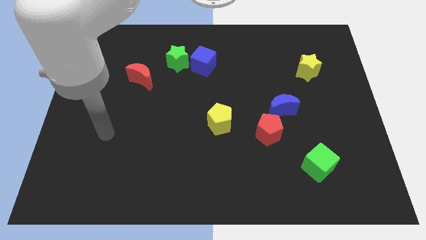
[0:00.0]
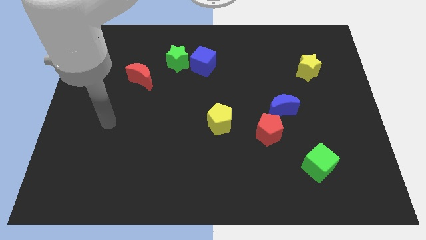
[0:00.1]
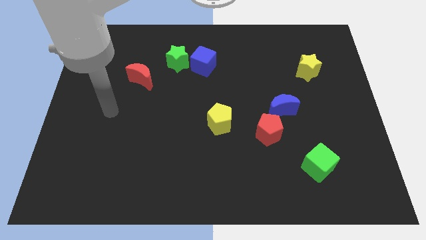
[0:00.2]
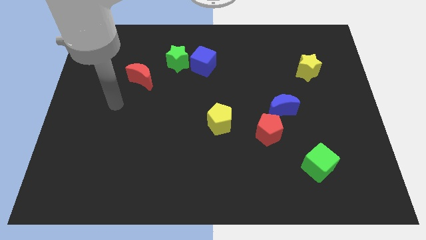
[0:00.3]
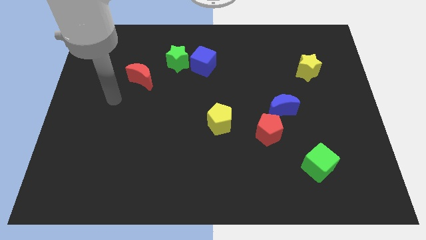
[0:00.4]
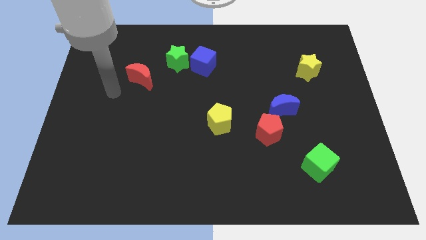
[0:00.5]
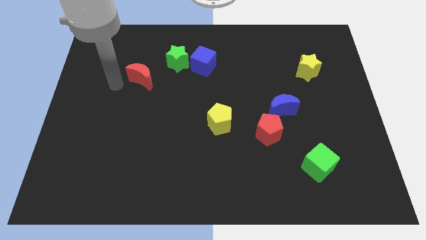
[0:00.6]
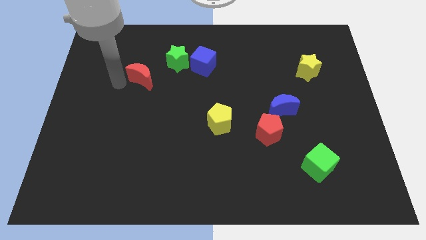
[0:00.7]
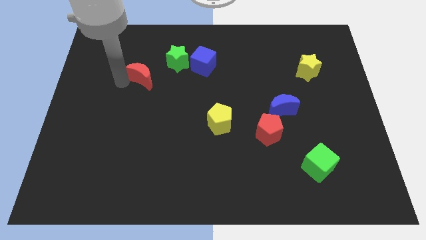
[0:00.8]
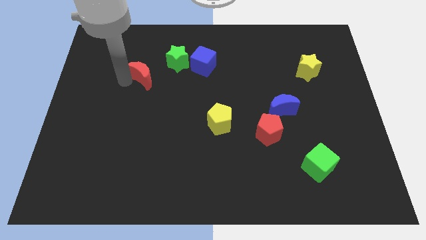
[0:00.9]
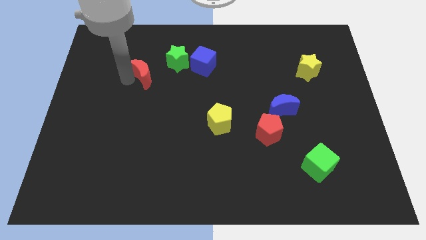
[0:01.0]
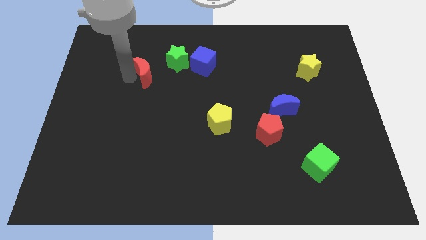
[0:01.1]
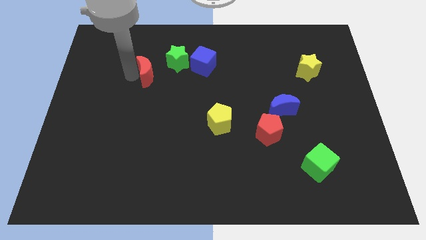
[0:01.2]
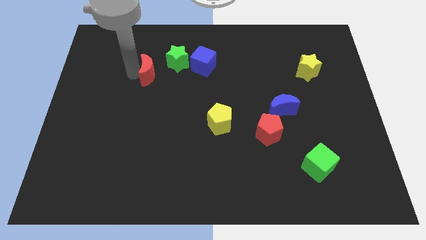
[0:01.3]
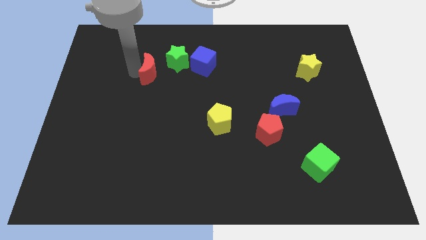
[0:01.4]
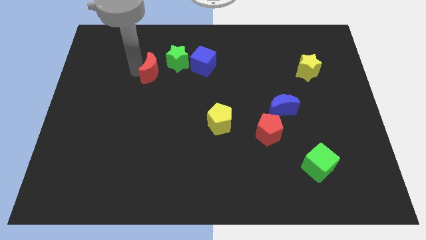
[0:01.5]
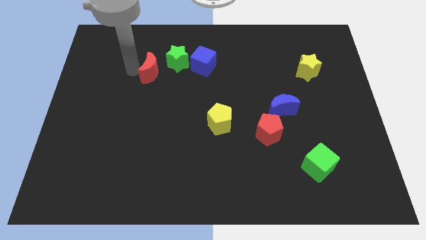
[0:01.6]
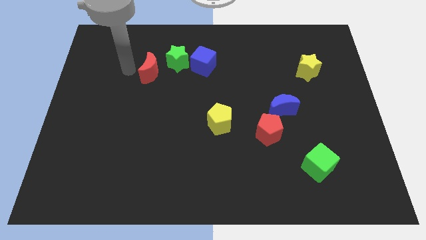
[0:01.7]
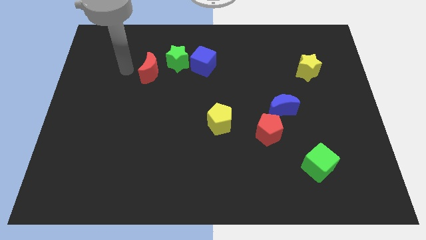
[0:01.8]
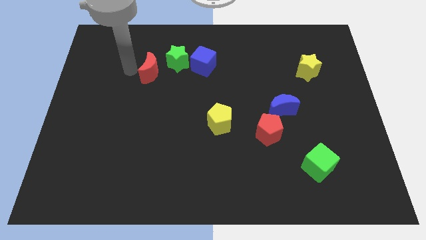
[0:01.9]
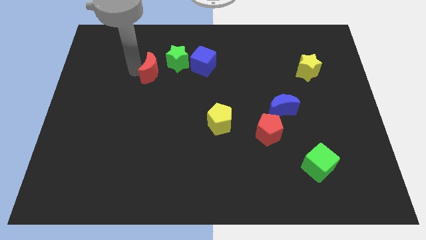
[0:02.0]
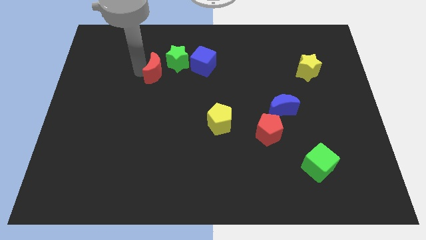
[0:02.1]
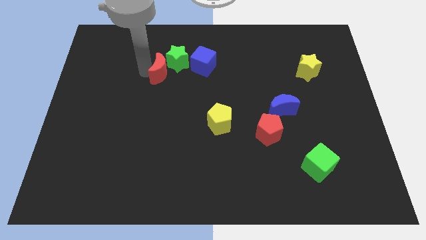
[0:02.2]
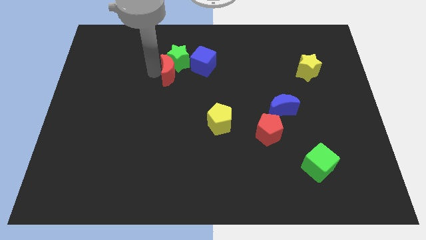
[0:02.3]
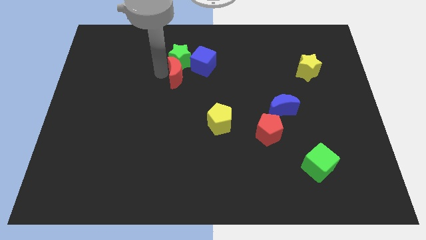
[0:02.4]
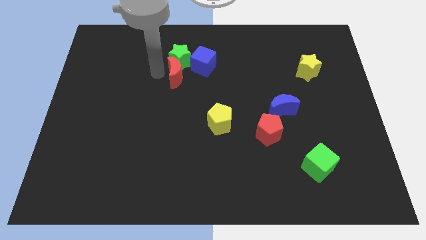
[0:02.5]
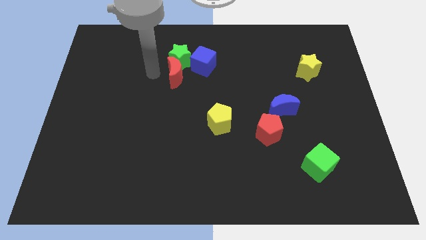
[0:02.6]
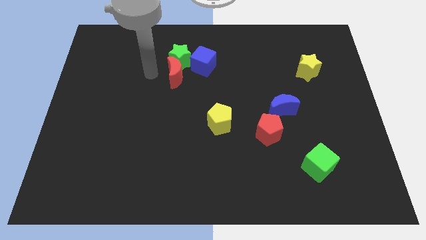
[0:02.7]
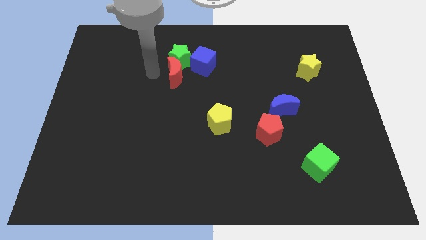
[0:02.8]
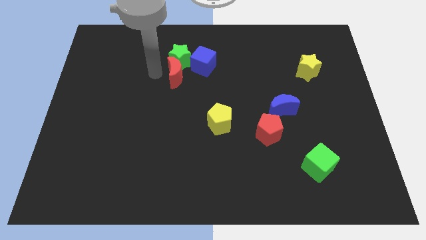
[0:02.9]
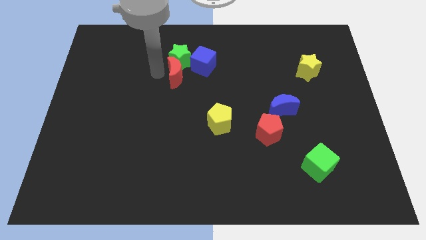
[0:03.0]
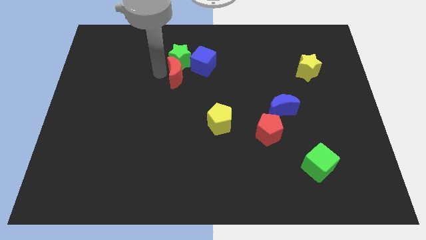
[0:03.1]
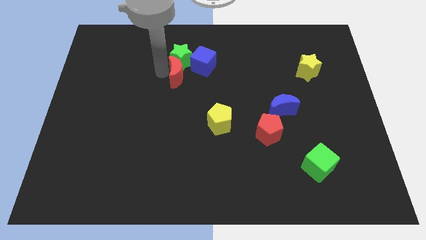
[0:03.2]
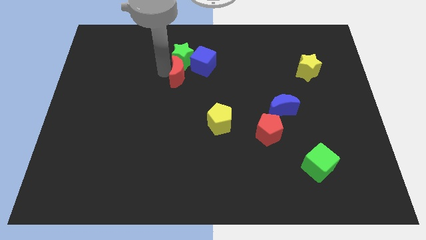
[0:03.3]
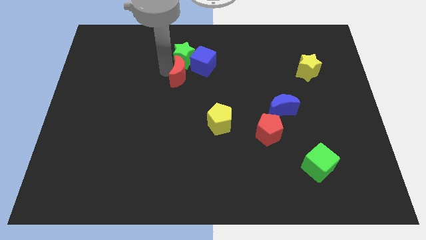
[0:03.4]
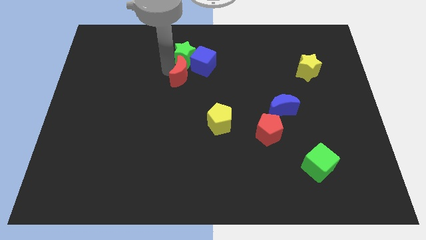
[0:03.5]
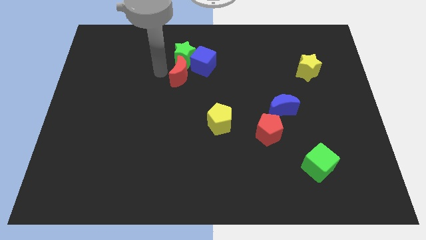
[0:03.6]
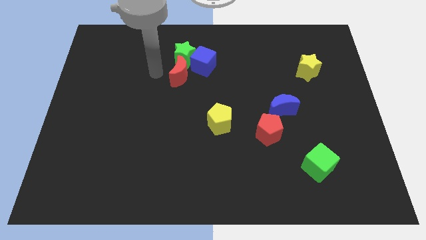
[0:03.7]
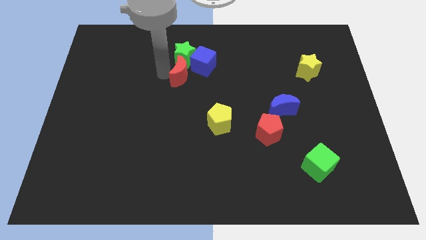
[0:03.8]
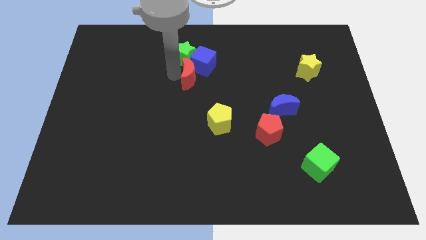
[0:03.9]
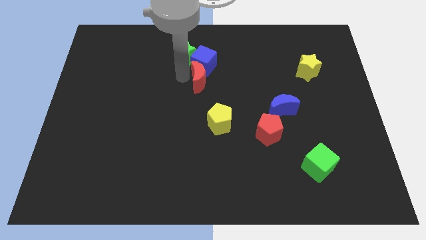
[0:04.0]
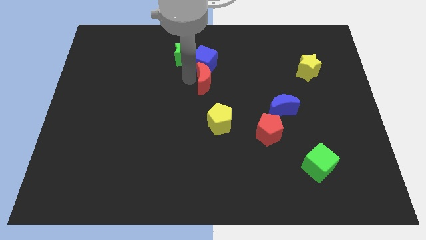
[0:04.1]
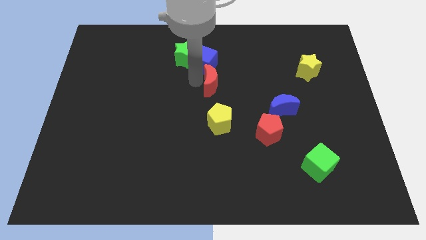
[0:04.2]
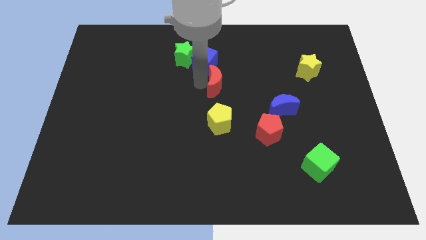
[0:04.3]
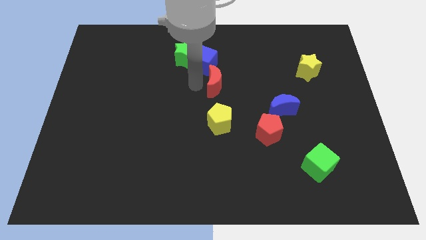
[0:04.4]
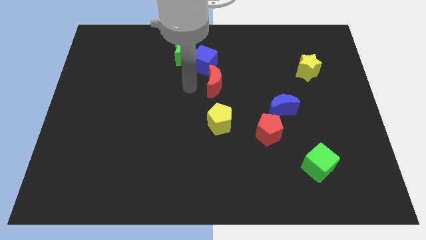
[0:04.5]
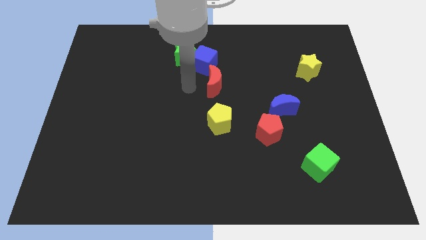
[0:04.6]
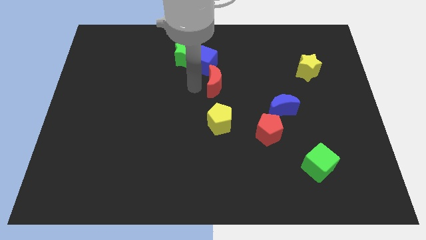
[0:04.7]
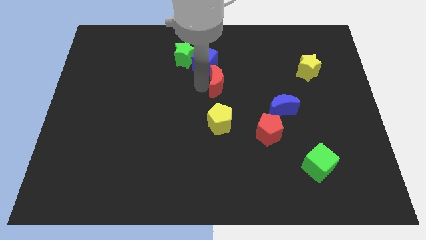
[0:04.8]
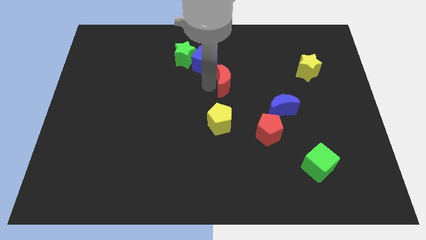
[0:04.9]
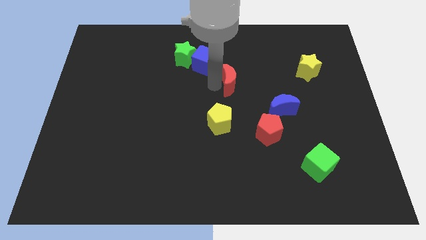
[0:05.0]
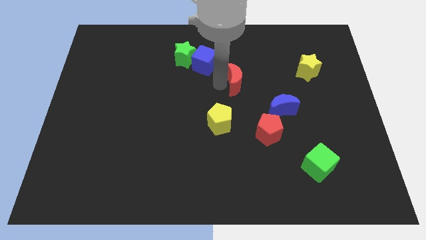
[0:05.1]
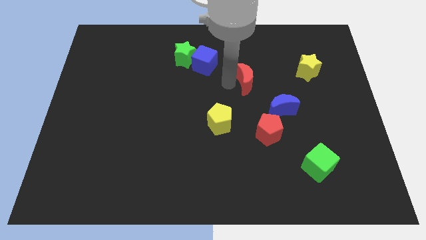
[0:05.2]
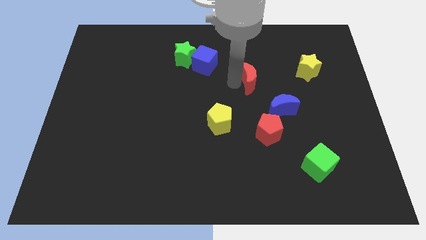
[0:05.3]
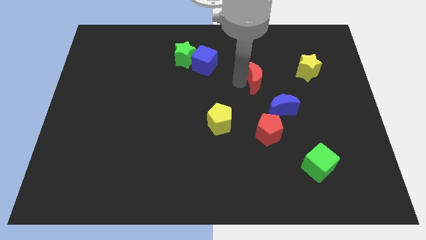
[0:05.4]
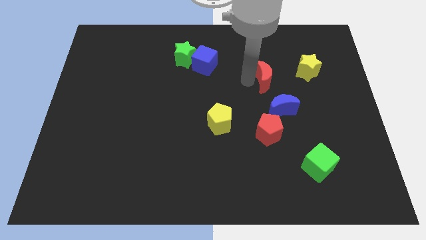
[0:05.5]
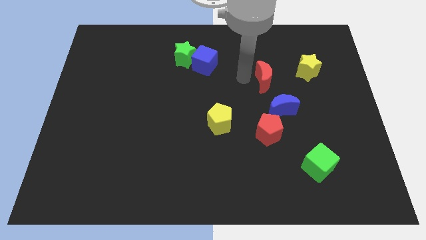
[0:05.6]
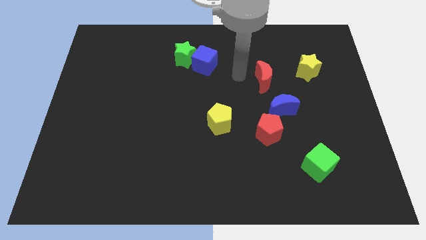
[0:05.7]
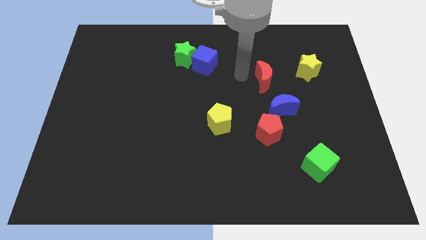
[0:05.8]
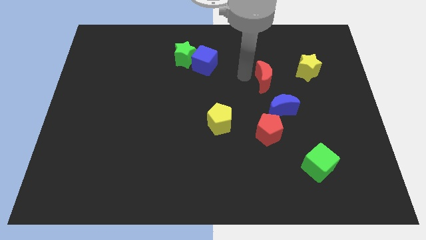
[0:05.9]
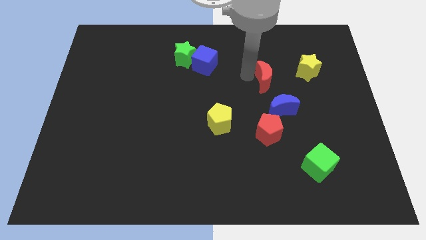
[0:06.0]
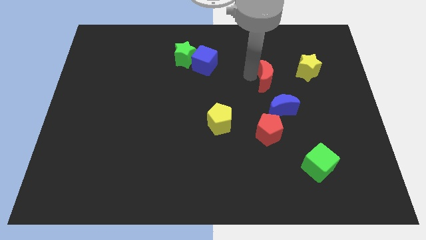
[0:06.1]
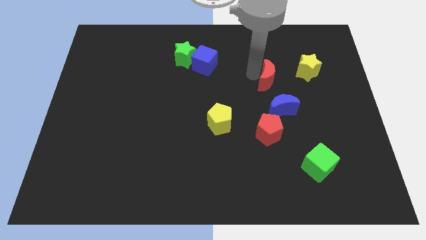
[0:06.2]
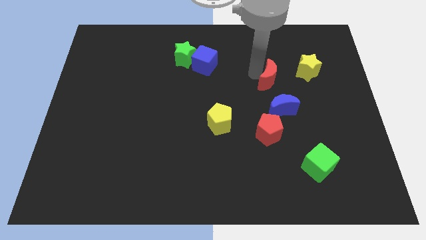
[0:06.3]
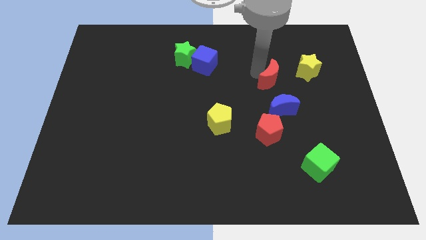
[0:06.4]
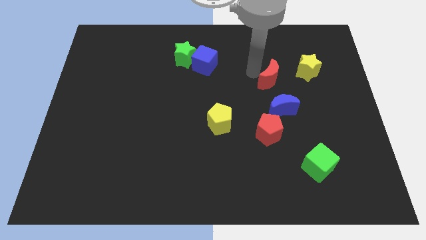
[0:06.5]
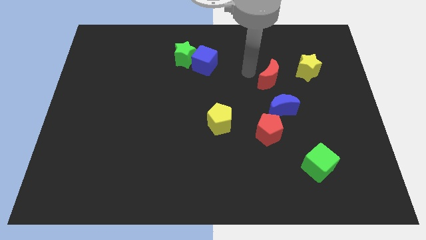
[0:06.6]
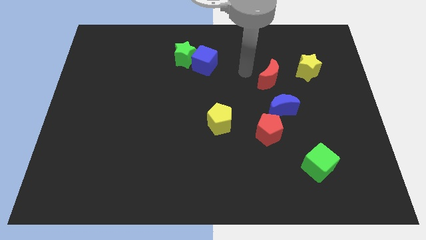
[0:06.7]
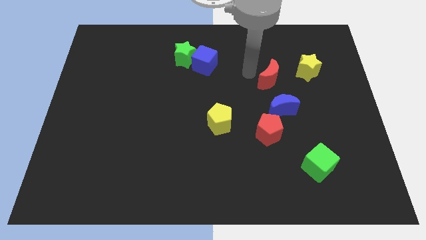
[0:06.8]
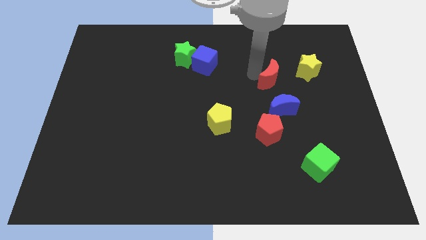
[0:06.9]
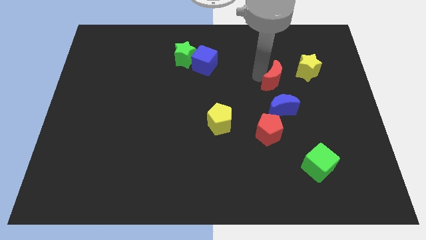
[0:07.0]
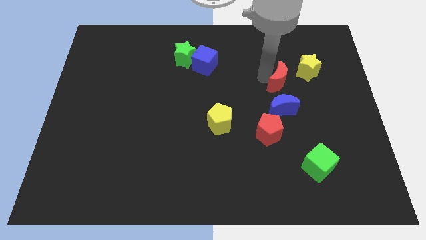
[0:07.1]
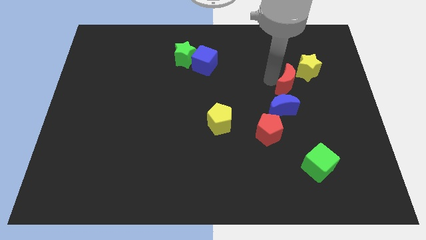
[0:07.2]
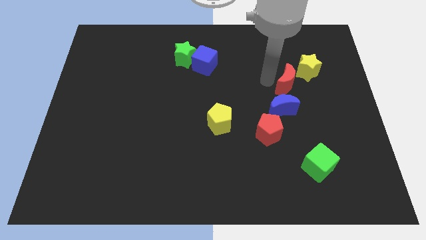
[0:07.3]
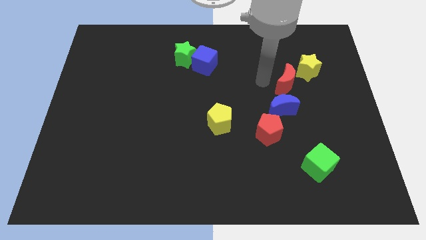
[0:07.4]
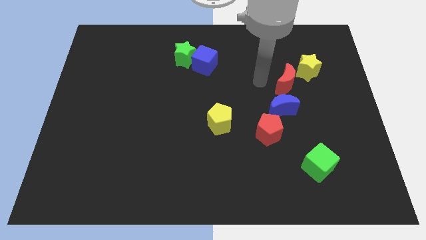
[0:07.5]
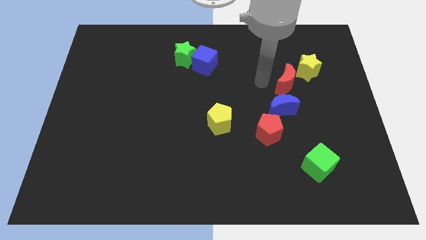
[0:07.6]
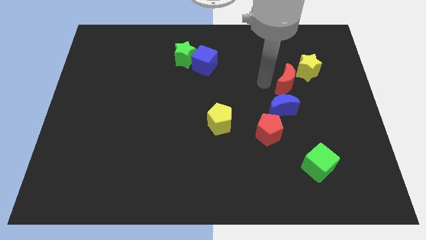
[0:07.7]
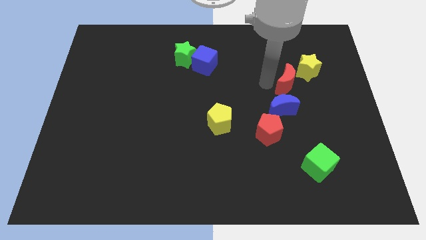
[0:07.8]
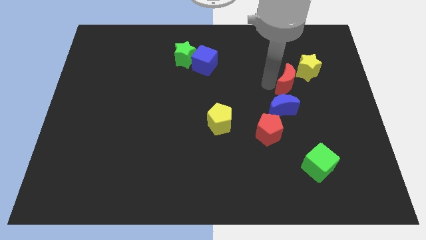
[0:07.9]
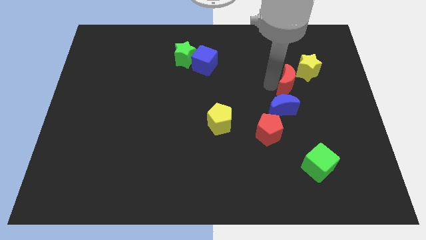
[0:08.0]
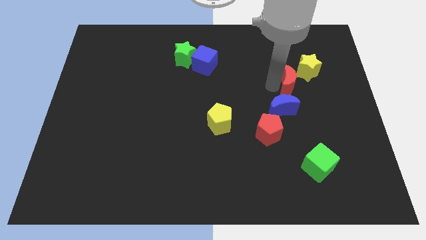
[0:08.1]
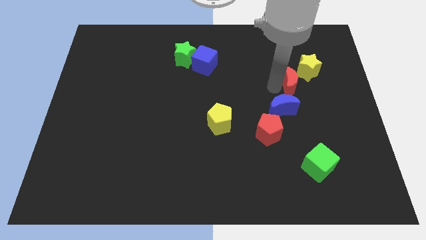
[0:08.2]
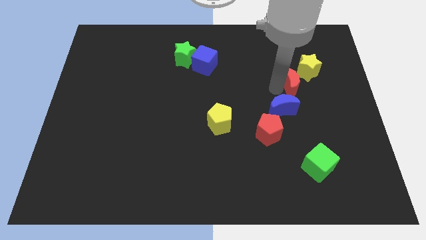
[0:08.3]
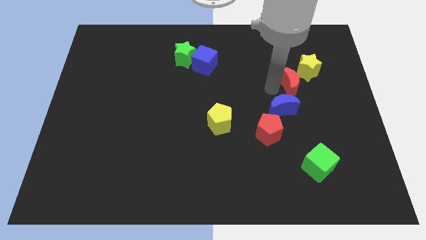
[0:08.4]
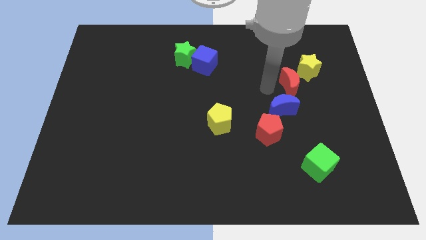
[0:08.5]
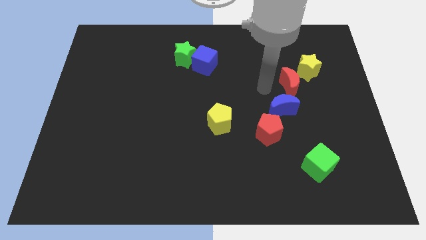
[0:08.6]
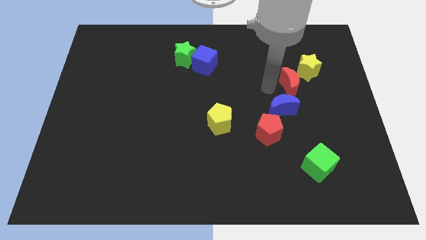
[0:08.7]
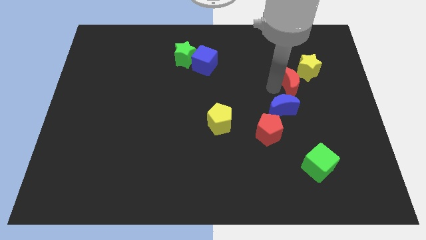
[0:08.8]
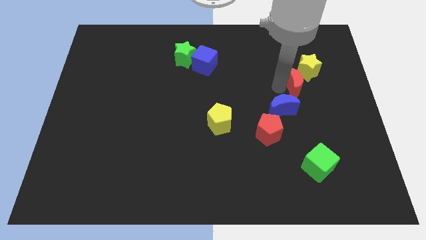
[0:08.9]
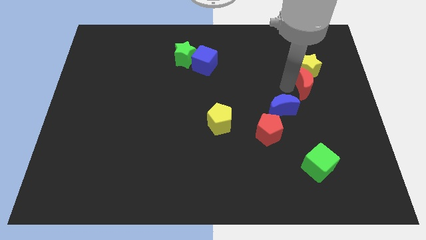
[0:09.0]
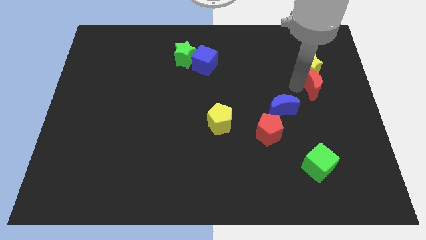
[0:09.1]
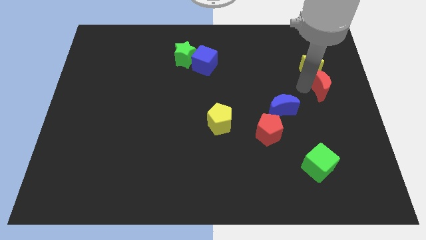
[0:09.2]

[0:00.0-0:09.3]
move the red moon to the right side
